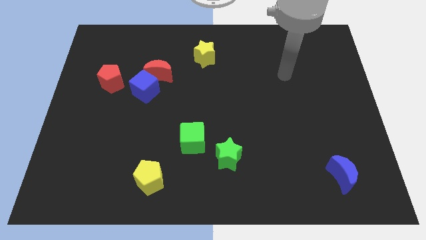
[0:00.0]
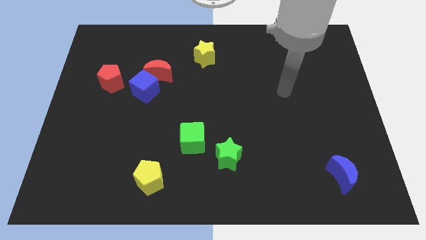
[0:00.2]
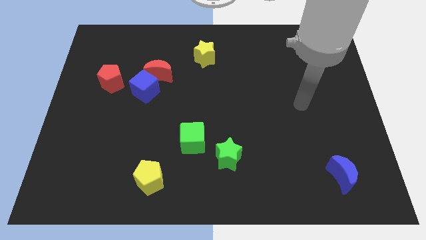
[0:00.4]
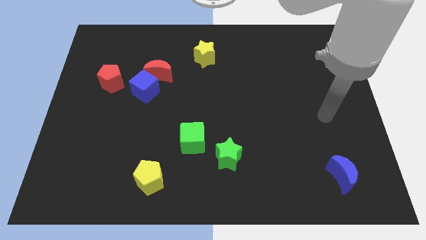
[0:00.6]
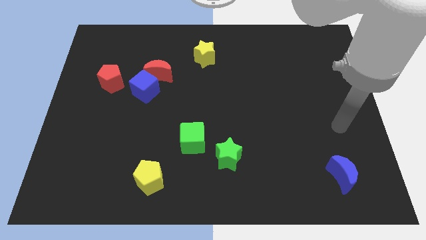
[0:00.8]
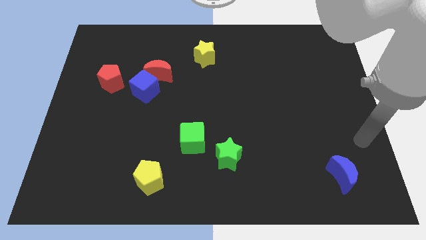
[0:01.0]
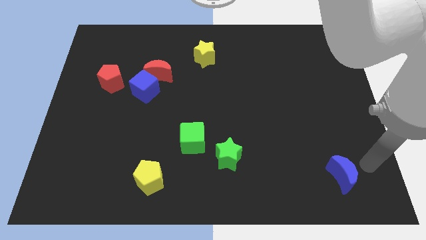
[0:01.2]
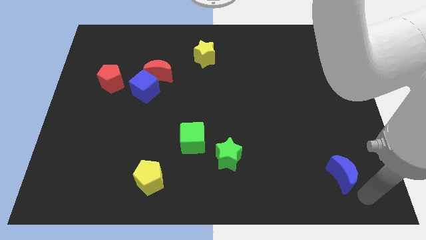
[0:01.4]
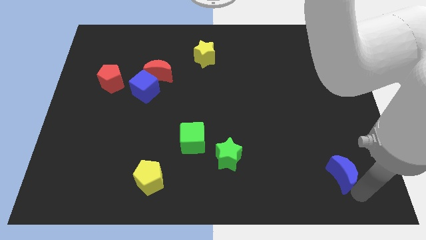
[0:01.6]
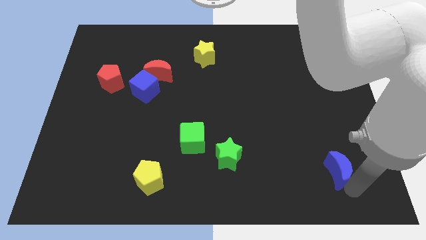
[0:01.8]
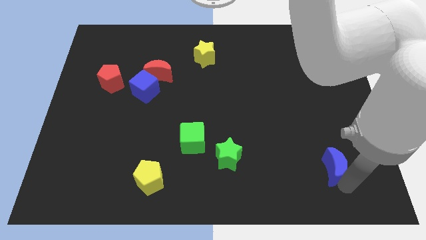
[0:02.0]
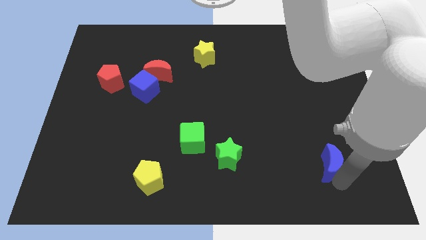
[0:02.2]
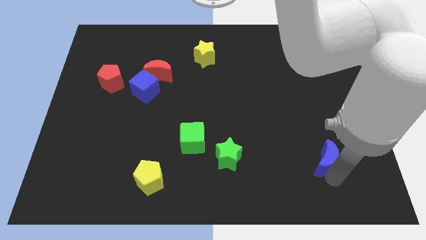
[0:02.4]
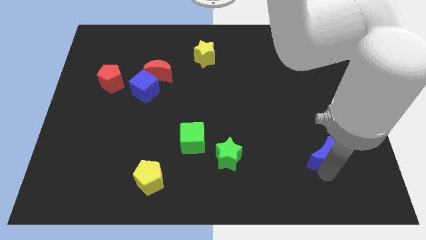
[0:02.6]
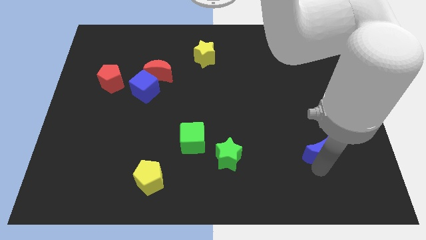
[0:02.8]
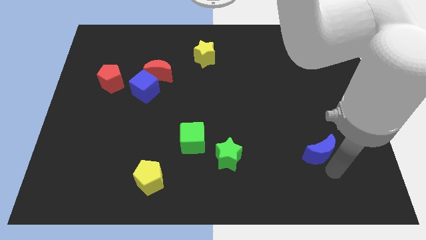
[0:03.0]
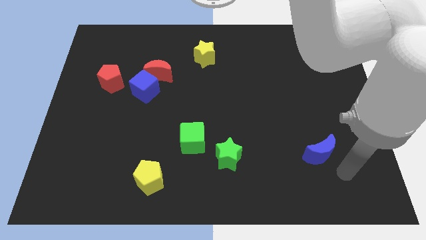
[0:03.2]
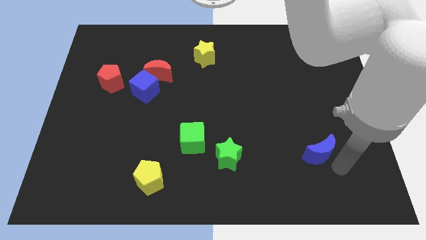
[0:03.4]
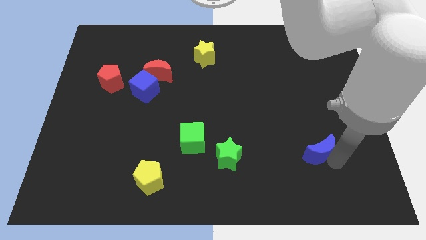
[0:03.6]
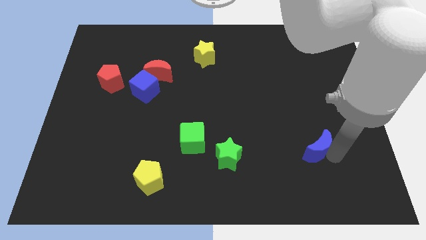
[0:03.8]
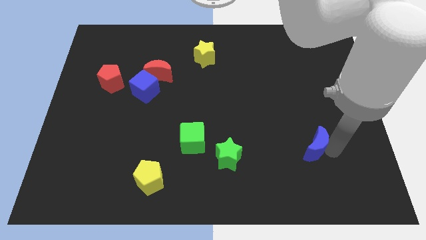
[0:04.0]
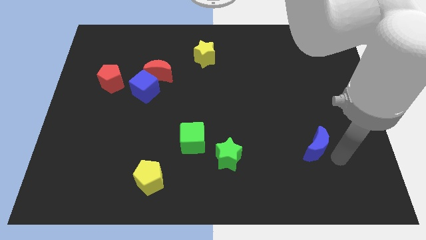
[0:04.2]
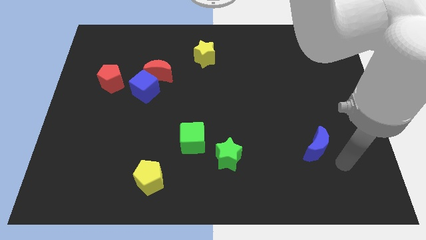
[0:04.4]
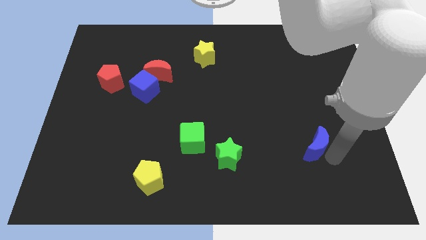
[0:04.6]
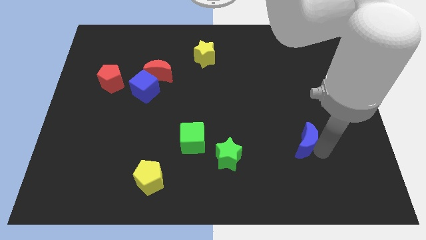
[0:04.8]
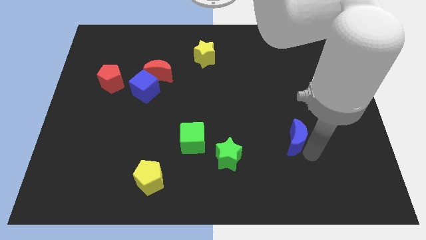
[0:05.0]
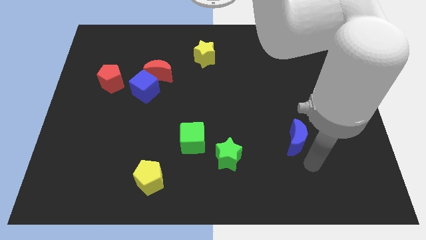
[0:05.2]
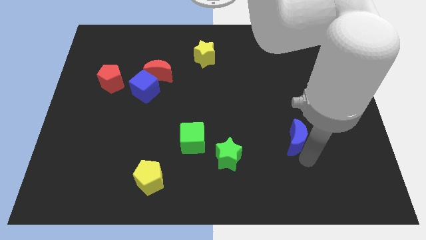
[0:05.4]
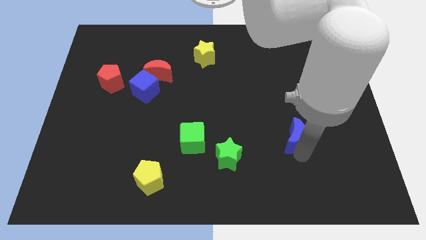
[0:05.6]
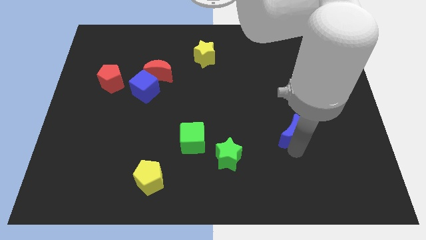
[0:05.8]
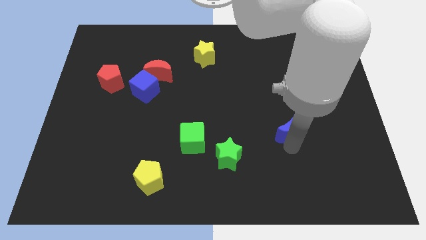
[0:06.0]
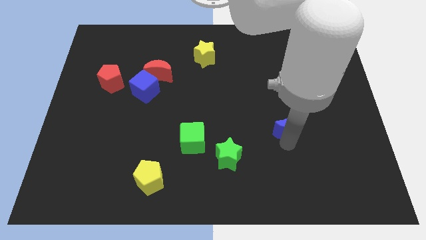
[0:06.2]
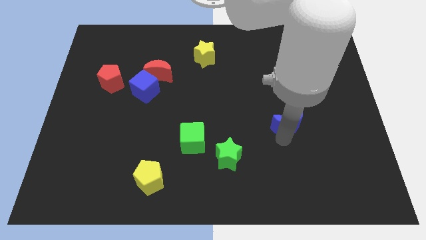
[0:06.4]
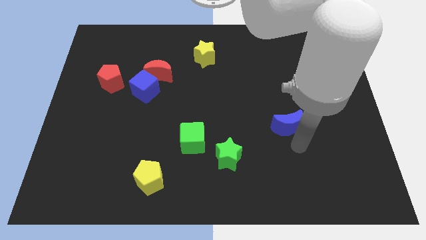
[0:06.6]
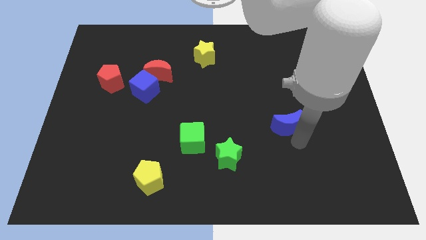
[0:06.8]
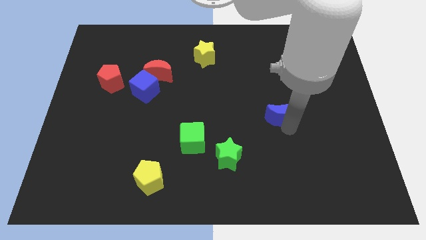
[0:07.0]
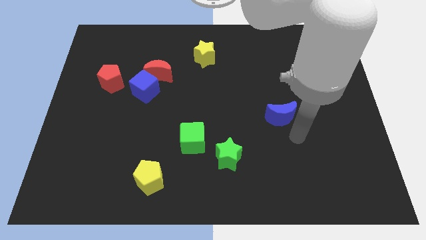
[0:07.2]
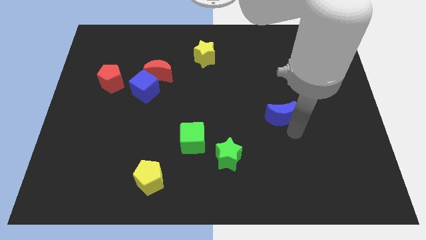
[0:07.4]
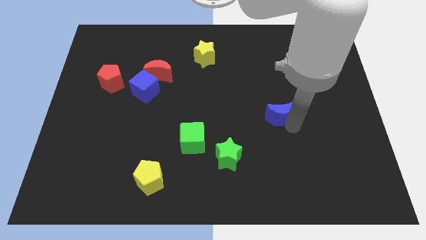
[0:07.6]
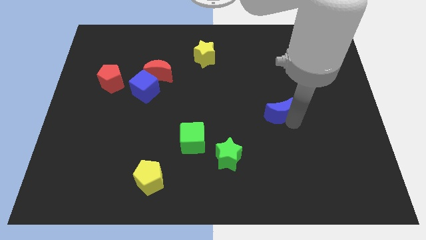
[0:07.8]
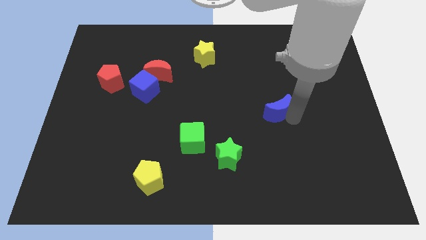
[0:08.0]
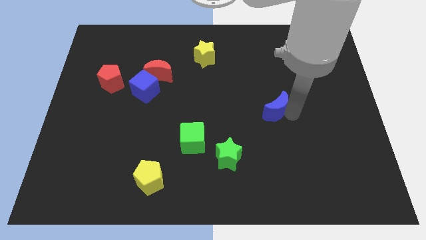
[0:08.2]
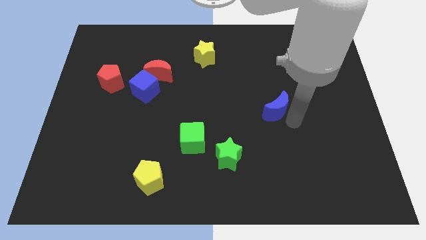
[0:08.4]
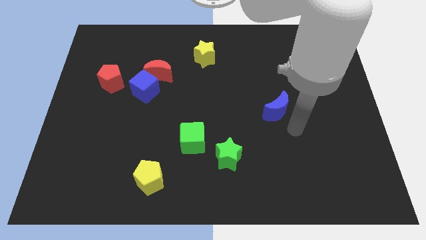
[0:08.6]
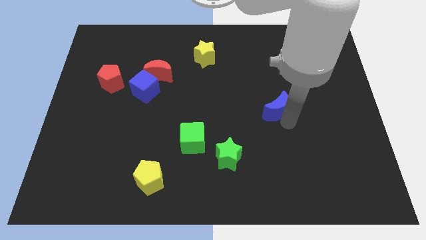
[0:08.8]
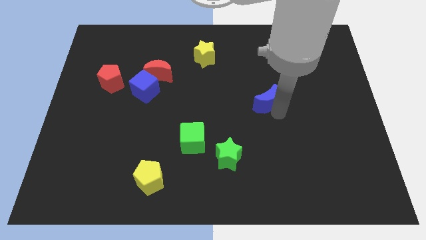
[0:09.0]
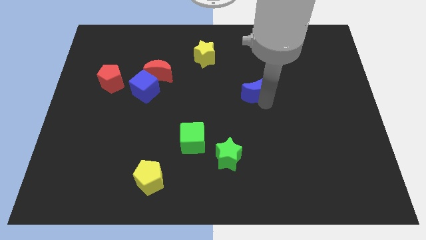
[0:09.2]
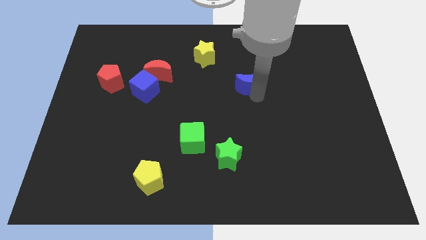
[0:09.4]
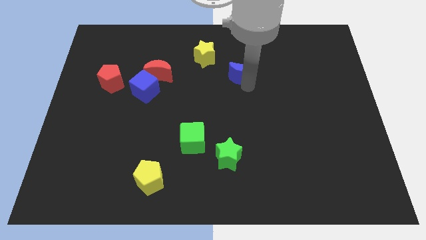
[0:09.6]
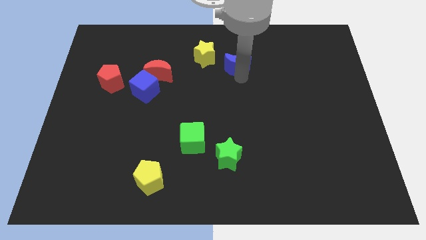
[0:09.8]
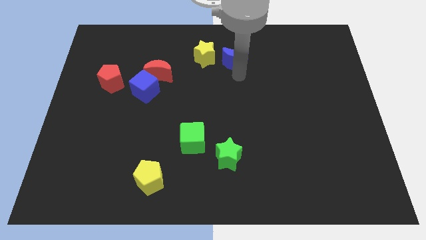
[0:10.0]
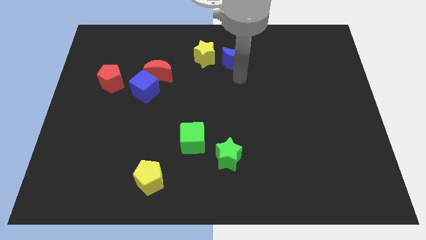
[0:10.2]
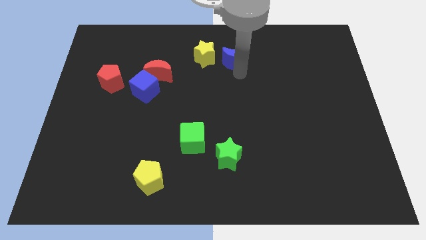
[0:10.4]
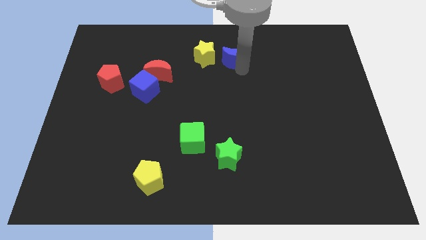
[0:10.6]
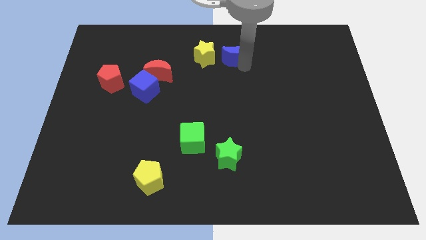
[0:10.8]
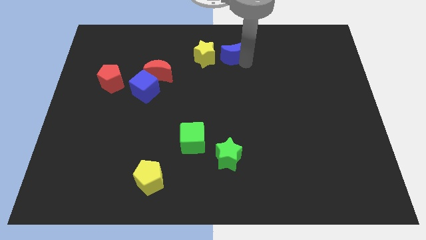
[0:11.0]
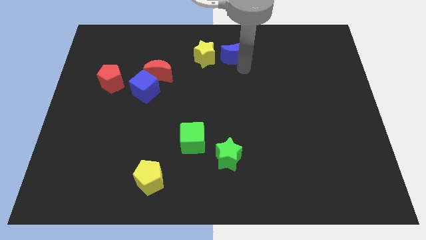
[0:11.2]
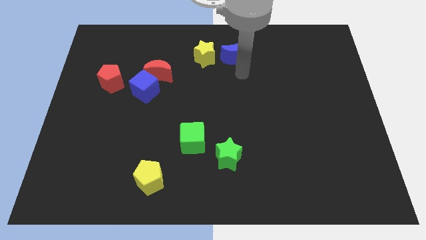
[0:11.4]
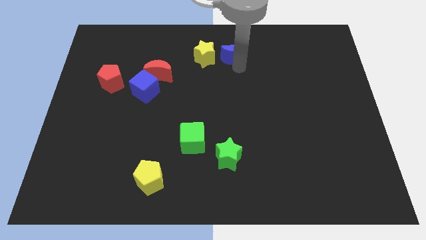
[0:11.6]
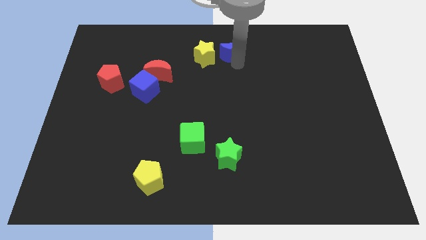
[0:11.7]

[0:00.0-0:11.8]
put the blue moon to the top side
